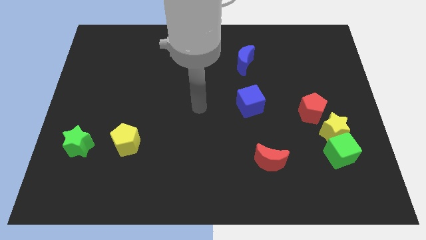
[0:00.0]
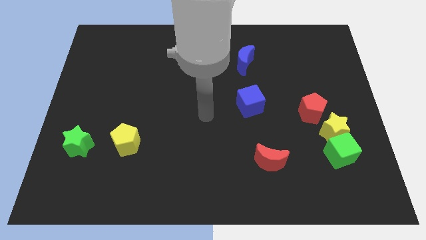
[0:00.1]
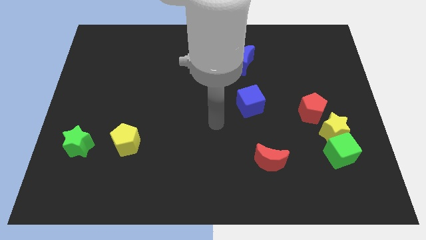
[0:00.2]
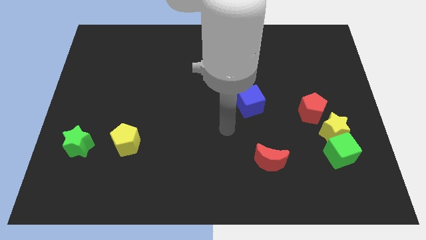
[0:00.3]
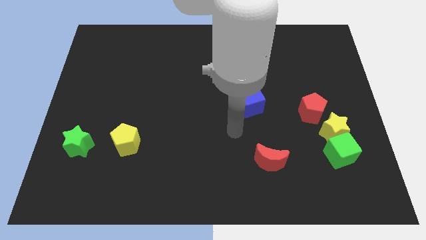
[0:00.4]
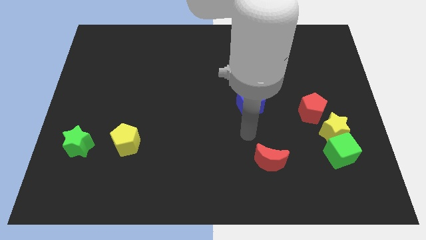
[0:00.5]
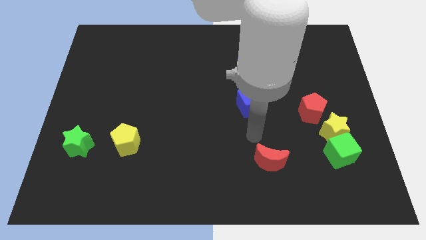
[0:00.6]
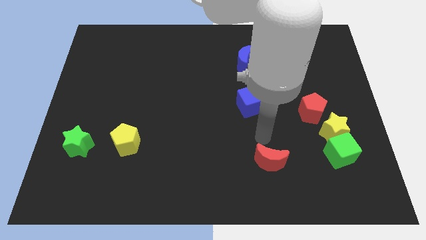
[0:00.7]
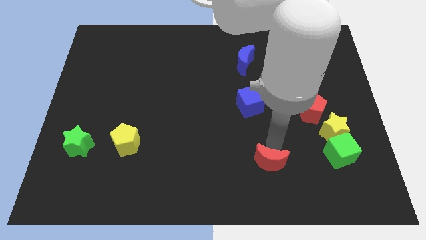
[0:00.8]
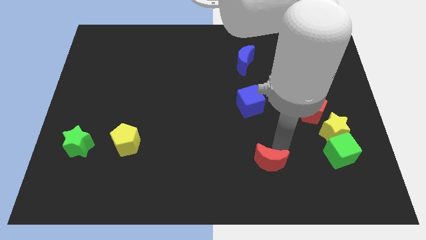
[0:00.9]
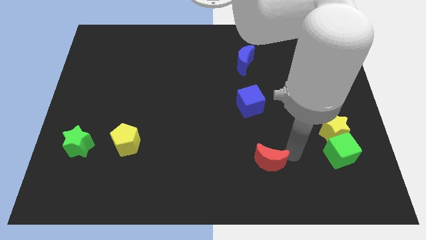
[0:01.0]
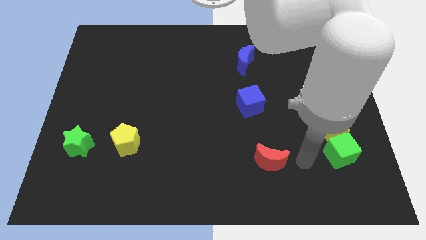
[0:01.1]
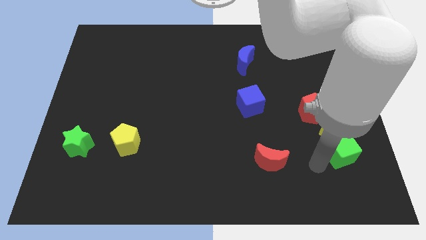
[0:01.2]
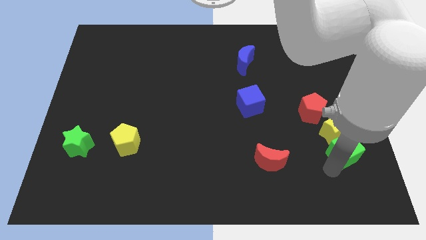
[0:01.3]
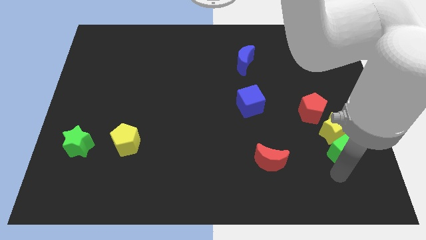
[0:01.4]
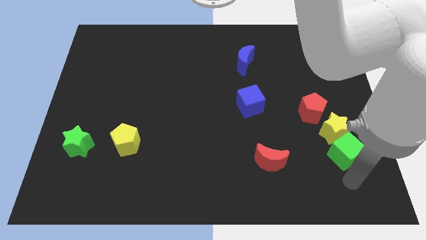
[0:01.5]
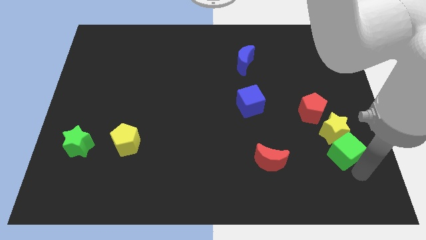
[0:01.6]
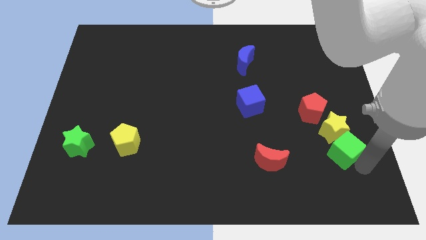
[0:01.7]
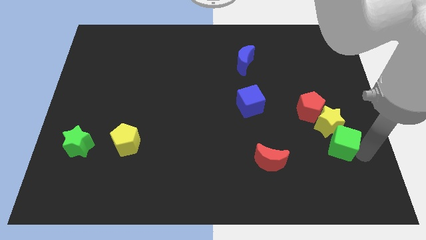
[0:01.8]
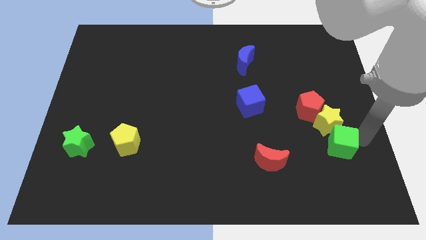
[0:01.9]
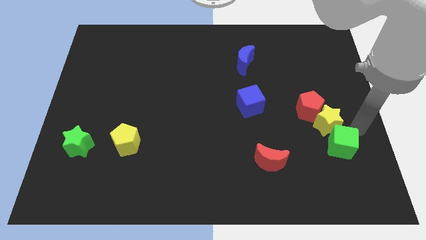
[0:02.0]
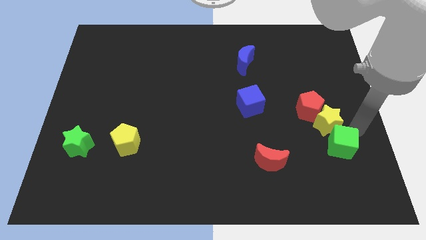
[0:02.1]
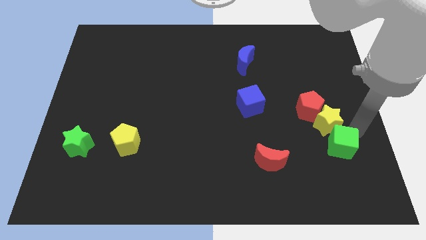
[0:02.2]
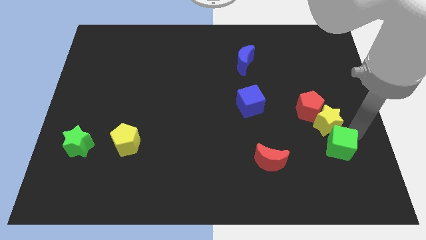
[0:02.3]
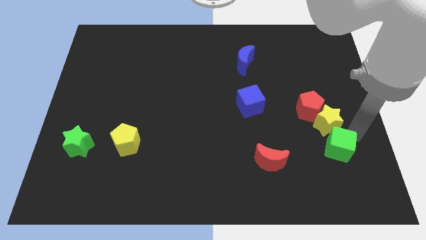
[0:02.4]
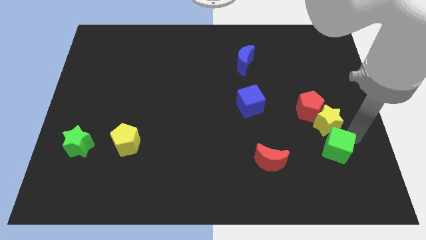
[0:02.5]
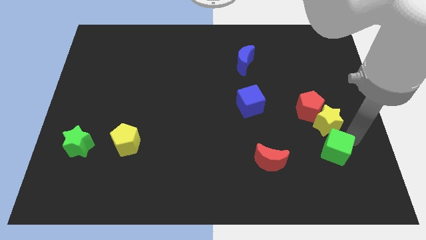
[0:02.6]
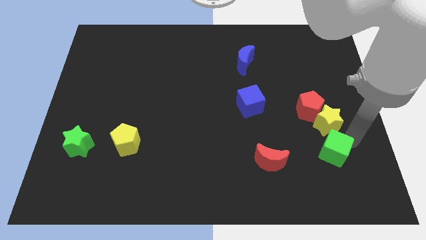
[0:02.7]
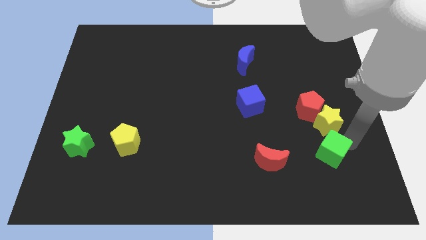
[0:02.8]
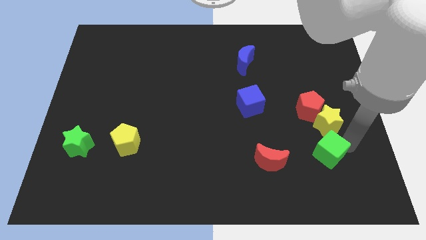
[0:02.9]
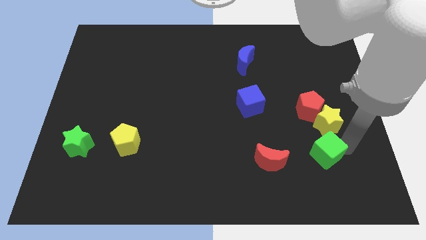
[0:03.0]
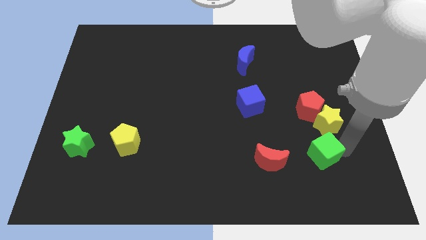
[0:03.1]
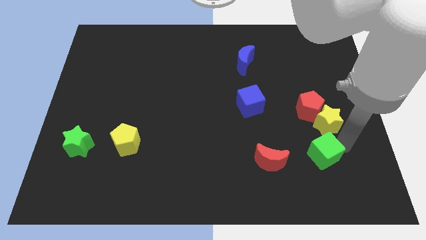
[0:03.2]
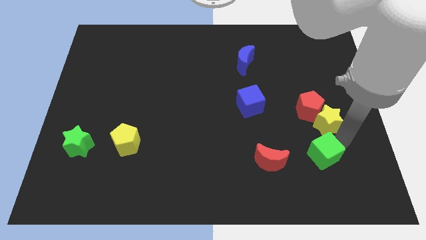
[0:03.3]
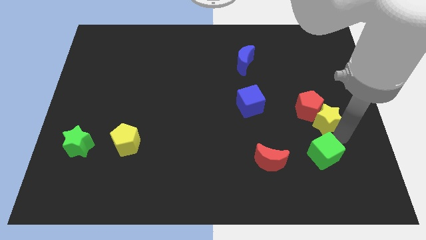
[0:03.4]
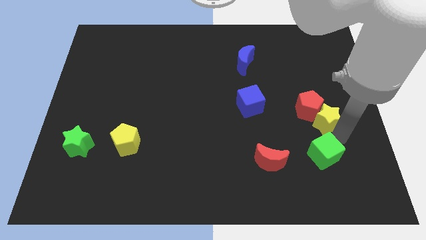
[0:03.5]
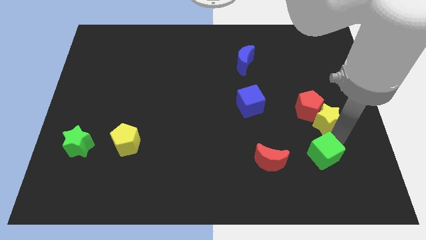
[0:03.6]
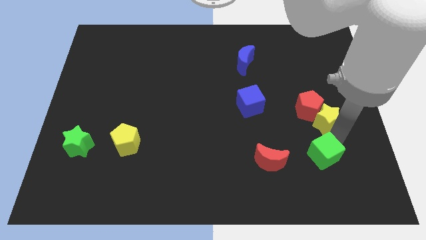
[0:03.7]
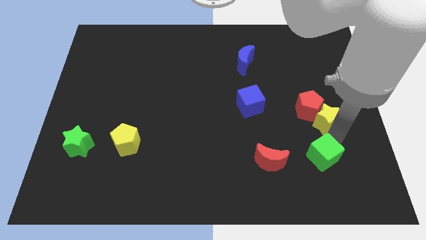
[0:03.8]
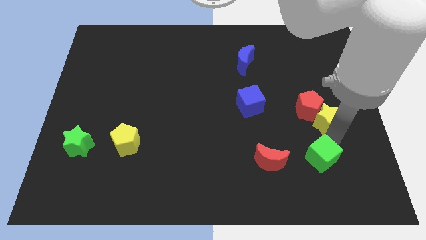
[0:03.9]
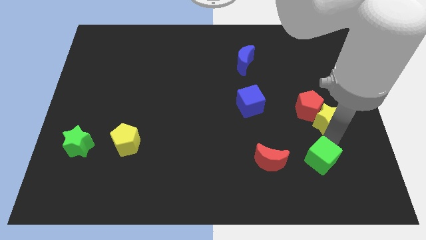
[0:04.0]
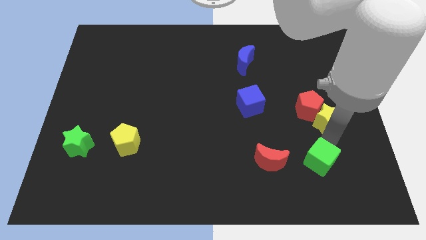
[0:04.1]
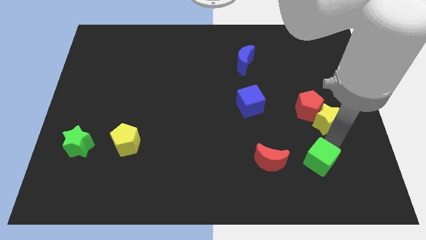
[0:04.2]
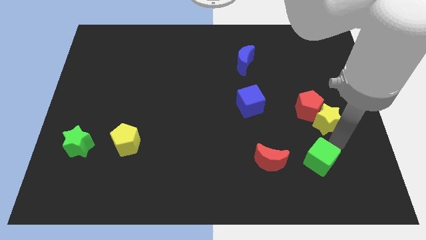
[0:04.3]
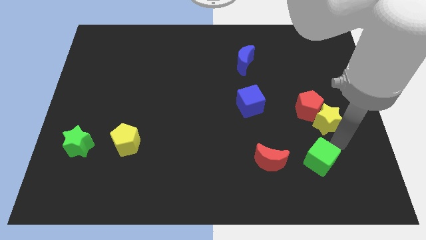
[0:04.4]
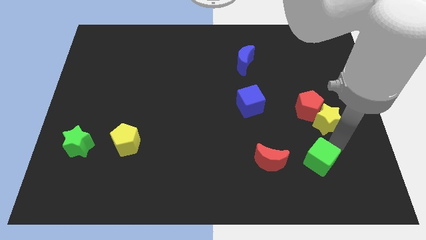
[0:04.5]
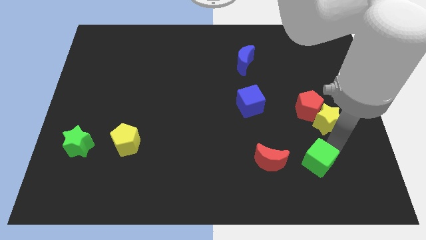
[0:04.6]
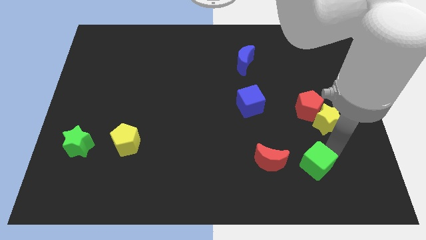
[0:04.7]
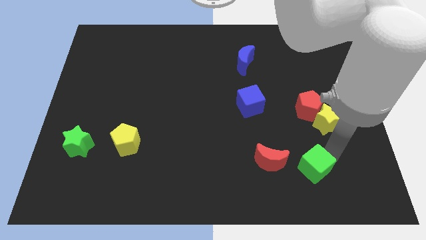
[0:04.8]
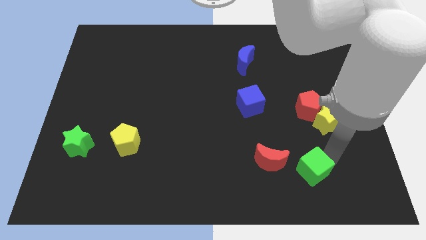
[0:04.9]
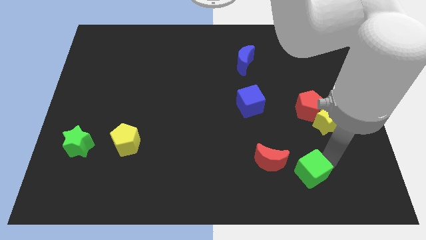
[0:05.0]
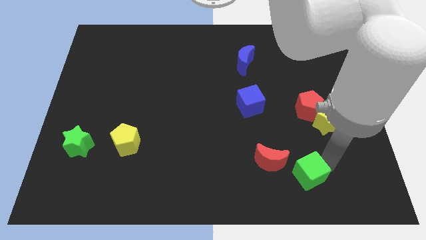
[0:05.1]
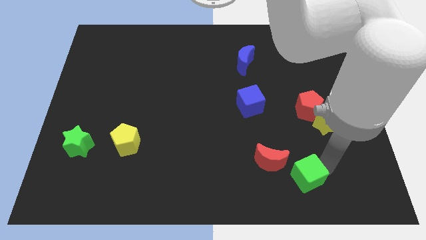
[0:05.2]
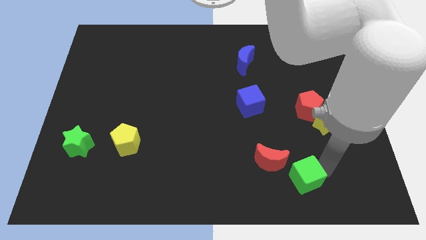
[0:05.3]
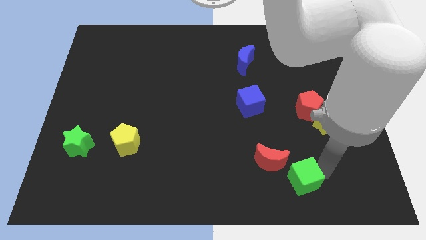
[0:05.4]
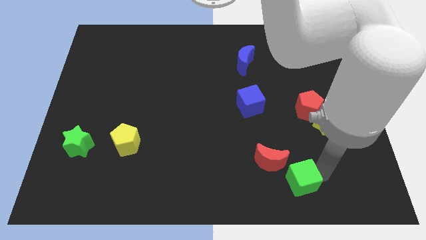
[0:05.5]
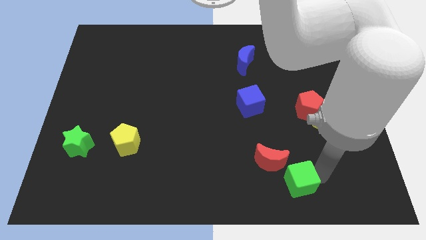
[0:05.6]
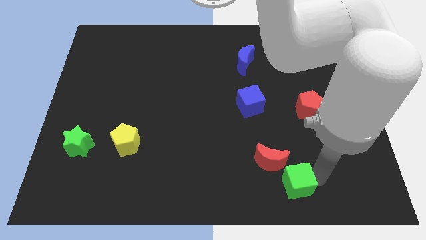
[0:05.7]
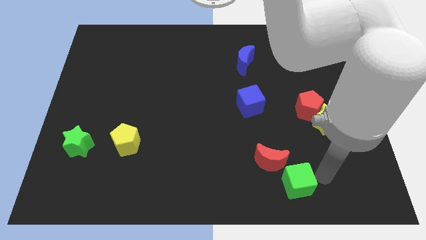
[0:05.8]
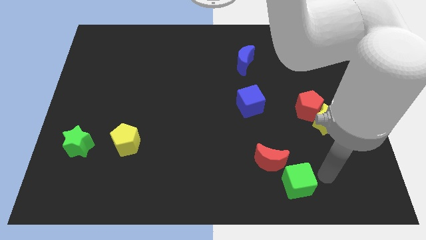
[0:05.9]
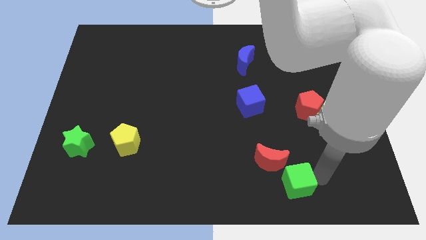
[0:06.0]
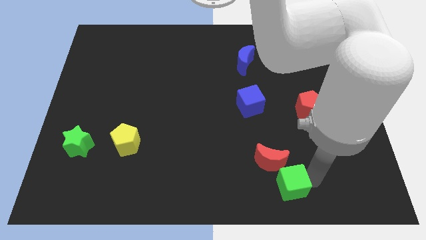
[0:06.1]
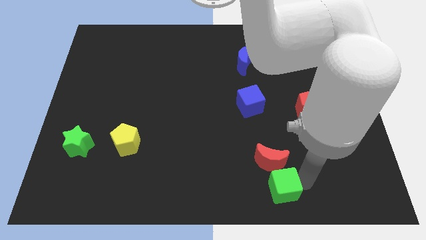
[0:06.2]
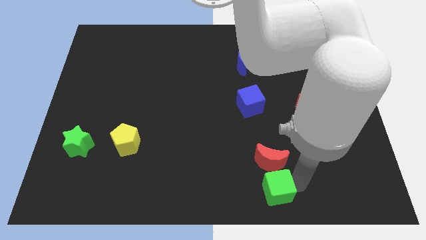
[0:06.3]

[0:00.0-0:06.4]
push the green cube to the bottom
